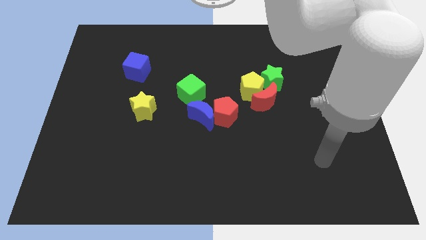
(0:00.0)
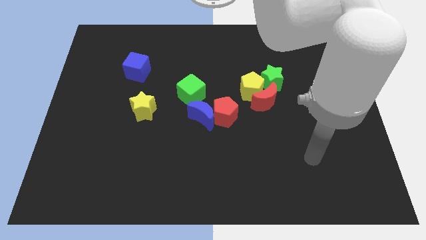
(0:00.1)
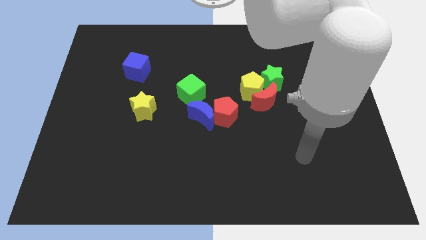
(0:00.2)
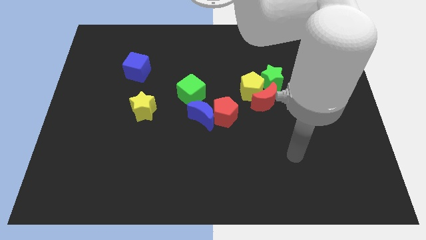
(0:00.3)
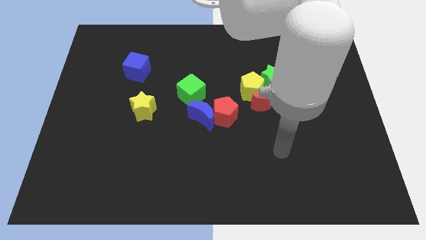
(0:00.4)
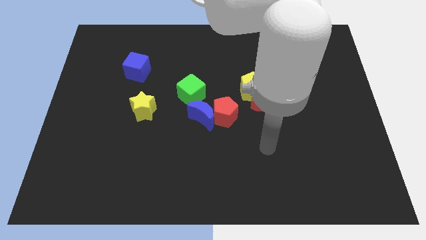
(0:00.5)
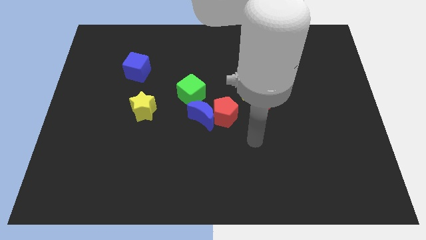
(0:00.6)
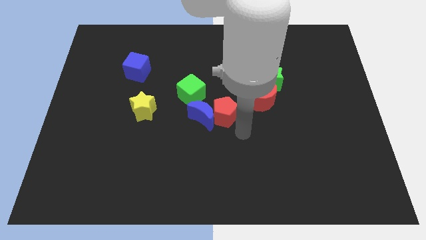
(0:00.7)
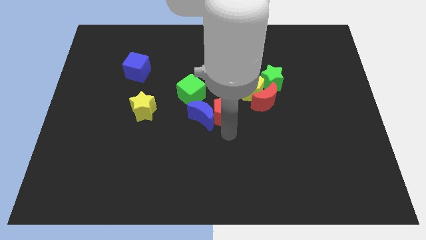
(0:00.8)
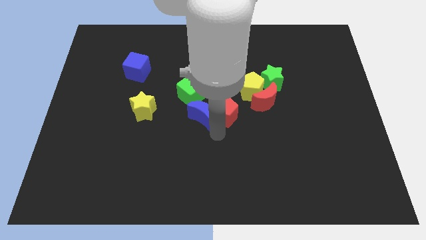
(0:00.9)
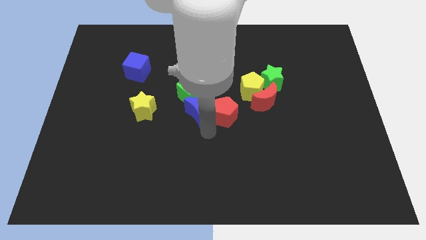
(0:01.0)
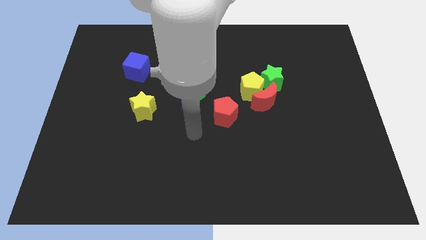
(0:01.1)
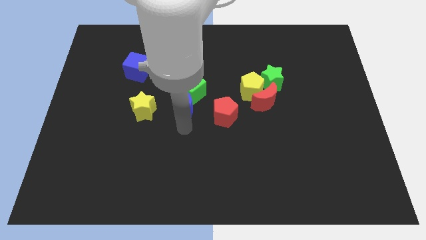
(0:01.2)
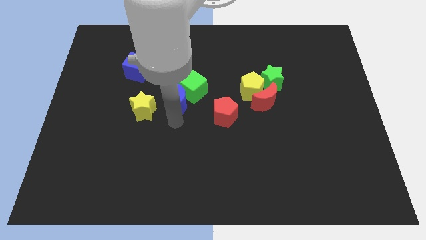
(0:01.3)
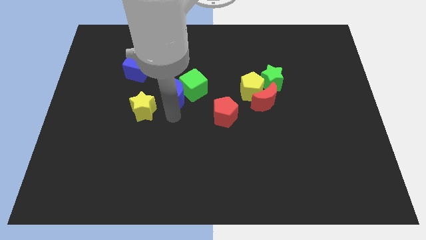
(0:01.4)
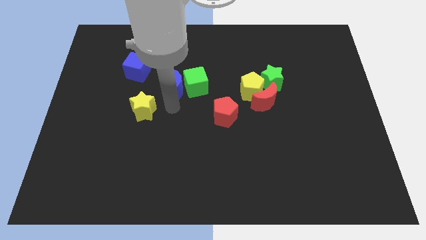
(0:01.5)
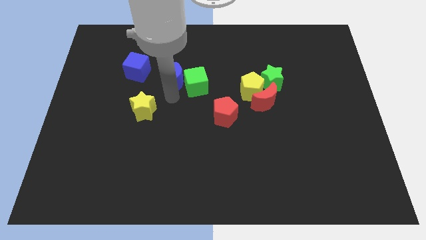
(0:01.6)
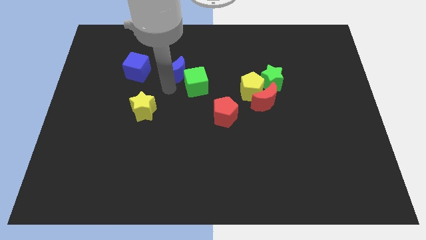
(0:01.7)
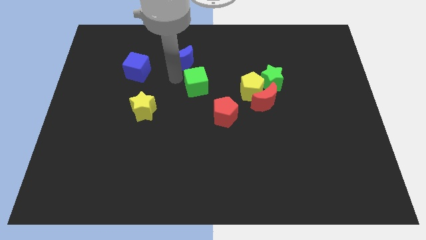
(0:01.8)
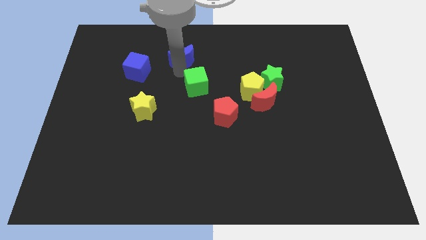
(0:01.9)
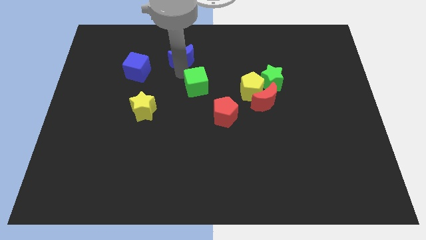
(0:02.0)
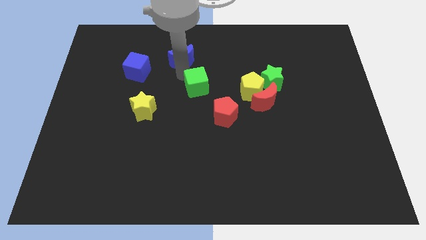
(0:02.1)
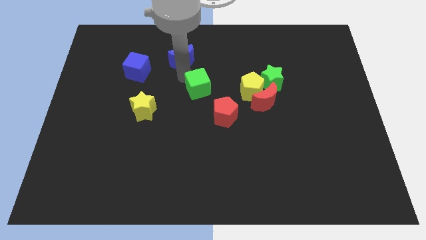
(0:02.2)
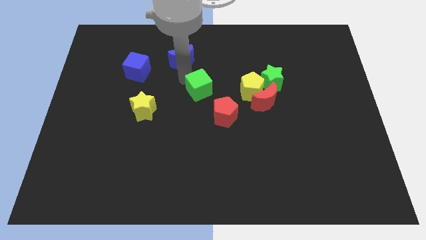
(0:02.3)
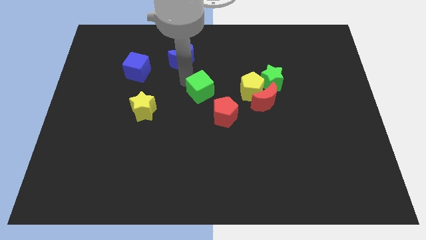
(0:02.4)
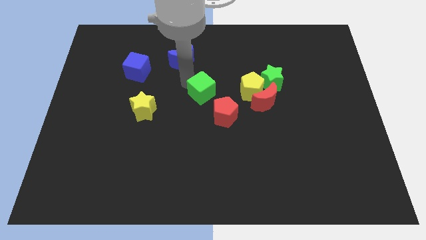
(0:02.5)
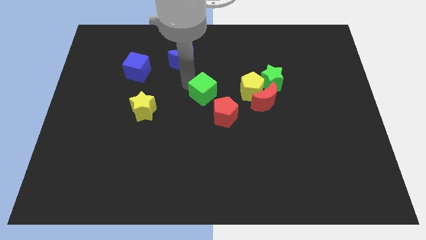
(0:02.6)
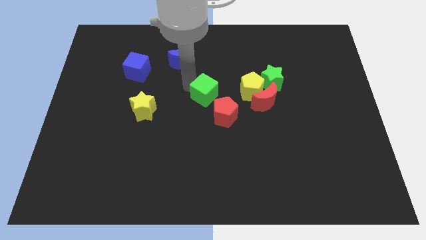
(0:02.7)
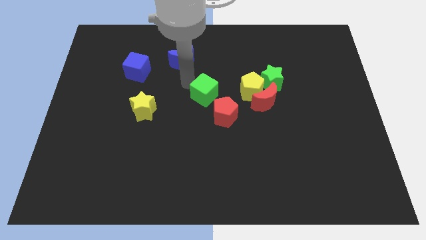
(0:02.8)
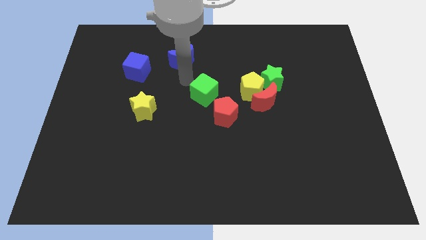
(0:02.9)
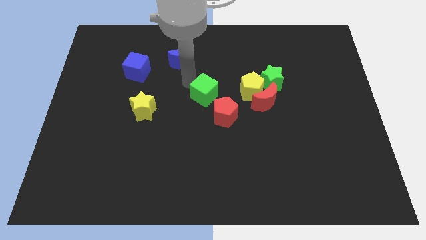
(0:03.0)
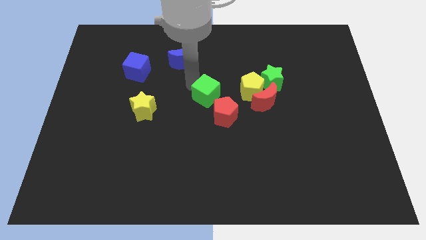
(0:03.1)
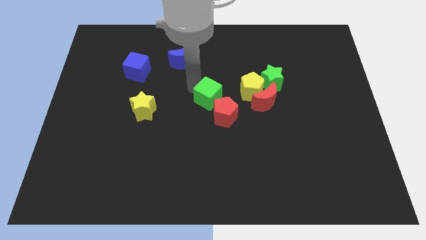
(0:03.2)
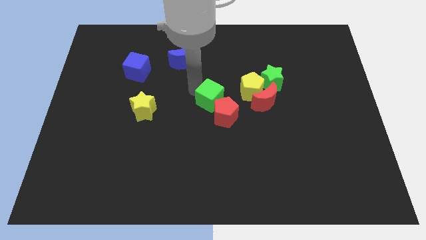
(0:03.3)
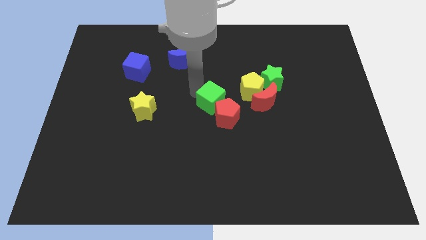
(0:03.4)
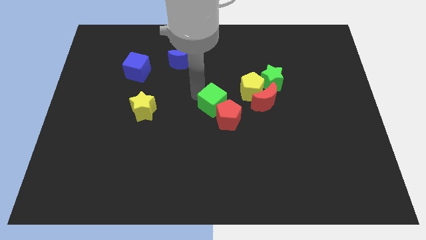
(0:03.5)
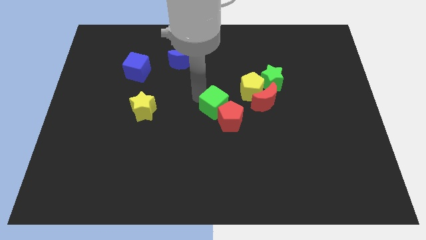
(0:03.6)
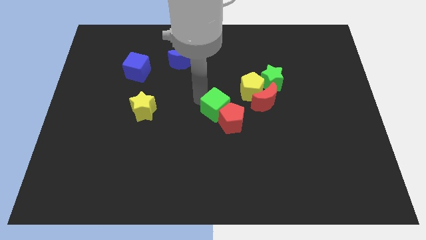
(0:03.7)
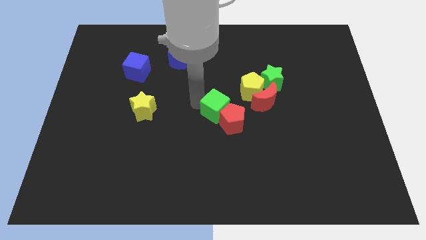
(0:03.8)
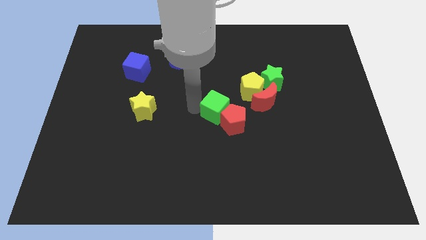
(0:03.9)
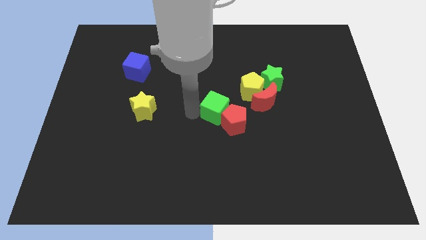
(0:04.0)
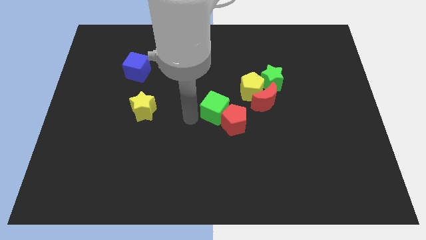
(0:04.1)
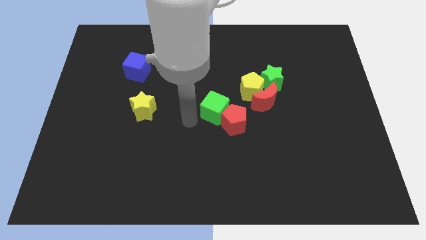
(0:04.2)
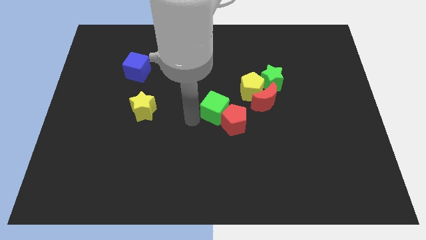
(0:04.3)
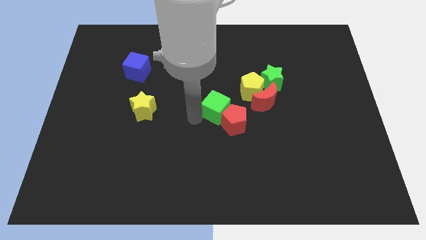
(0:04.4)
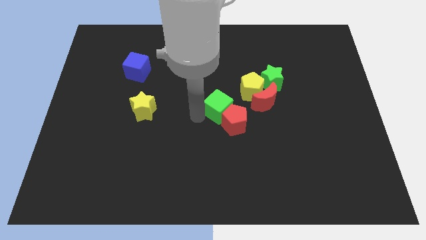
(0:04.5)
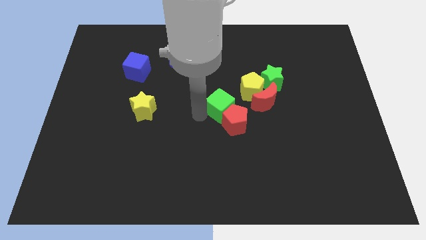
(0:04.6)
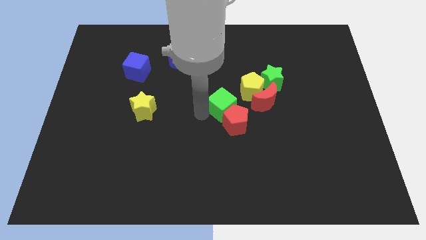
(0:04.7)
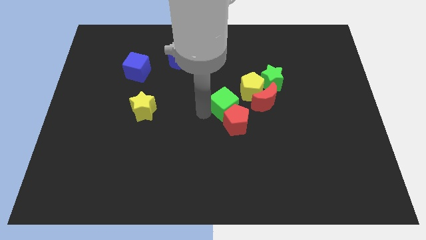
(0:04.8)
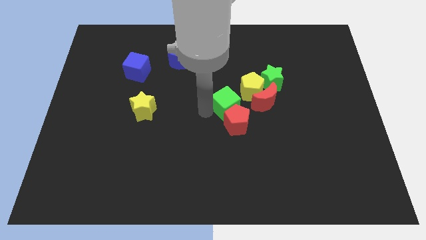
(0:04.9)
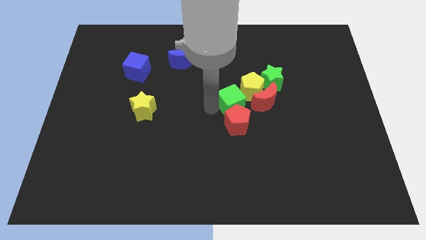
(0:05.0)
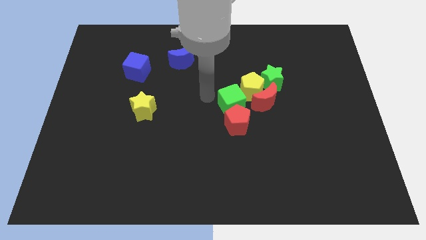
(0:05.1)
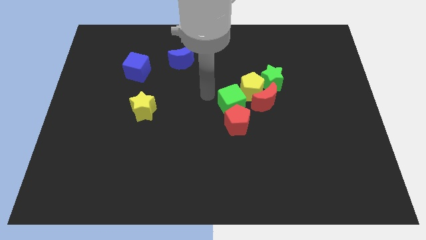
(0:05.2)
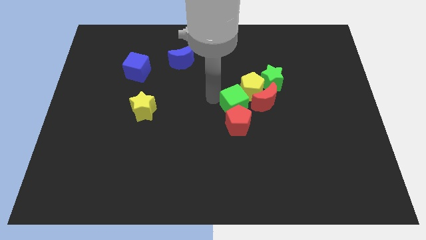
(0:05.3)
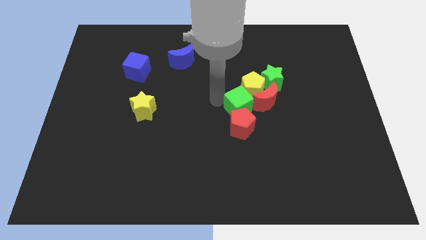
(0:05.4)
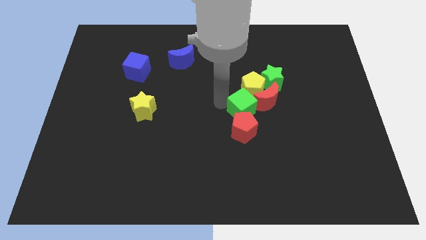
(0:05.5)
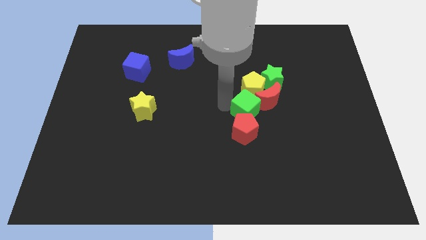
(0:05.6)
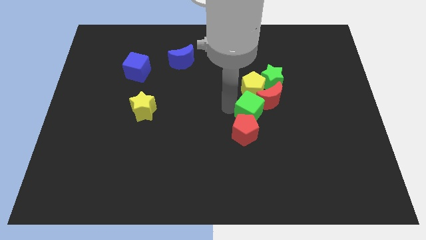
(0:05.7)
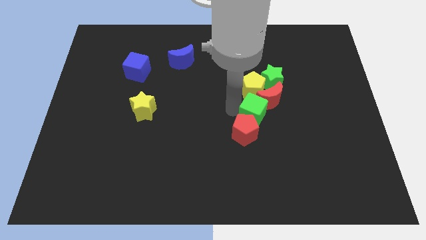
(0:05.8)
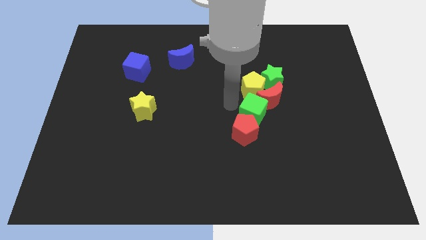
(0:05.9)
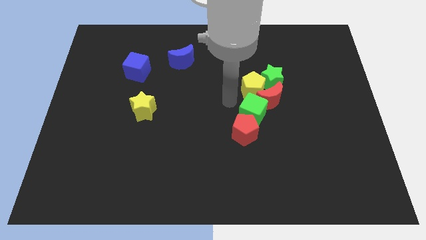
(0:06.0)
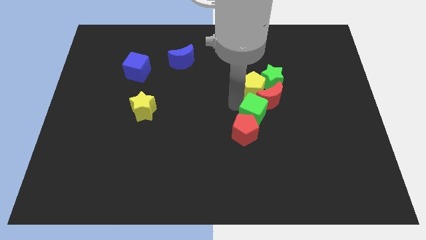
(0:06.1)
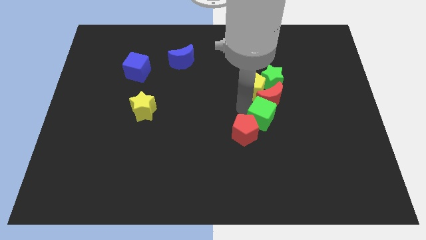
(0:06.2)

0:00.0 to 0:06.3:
push the green cube to the right side of the red pentagon

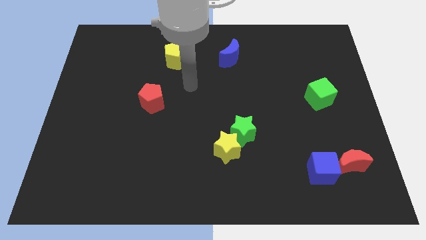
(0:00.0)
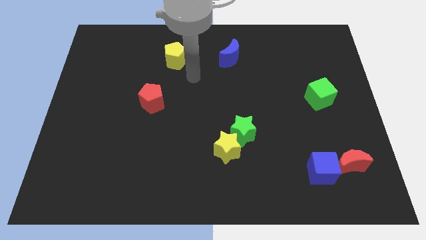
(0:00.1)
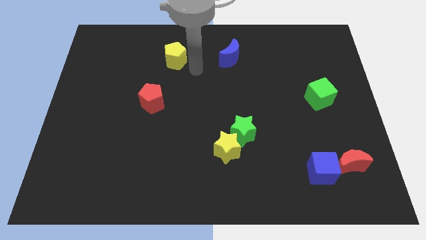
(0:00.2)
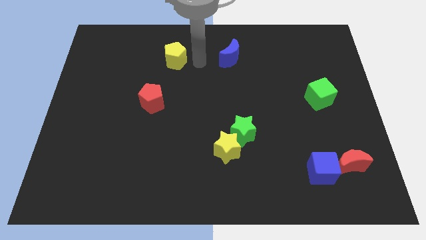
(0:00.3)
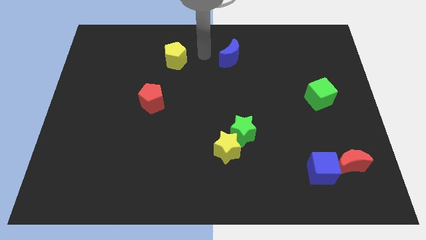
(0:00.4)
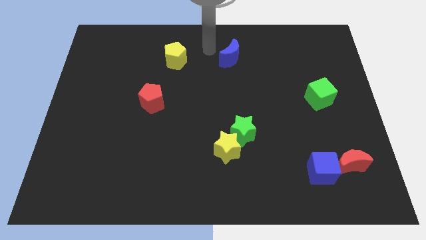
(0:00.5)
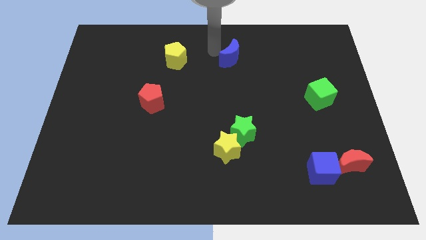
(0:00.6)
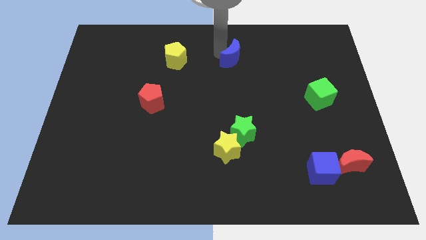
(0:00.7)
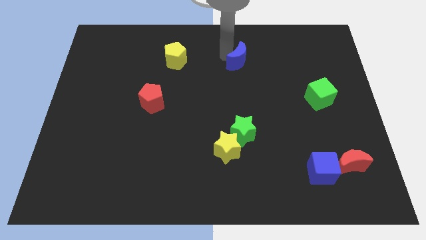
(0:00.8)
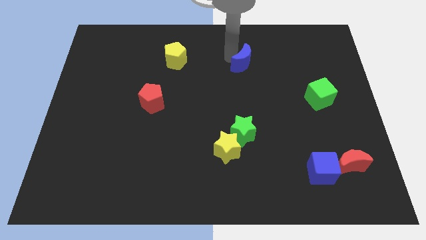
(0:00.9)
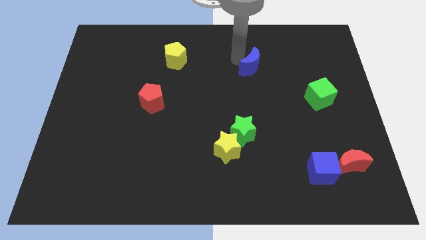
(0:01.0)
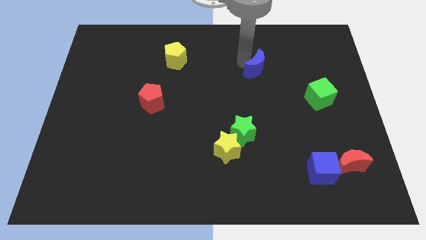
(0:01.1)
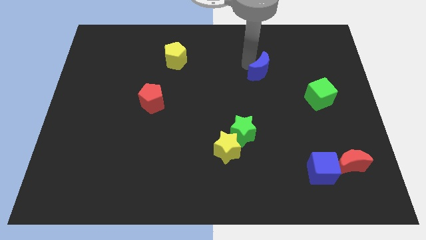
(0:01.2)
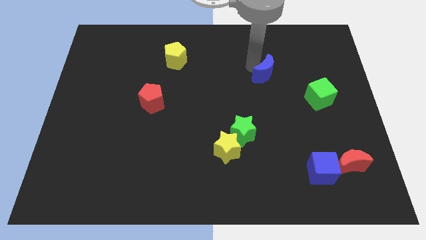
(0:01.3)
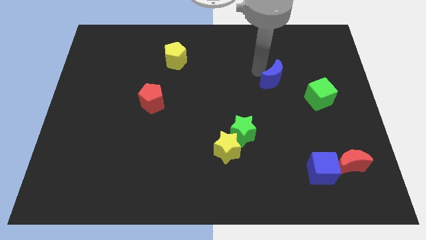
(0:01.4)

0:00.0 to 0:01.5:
push the blue moon to the top left of the green cube

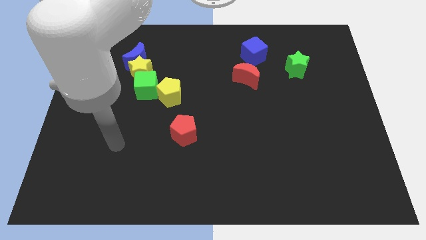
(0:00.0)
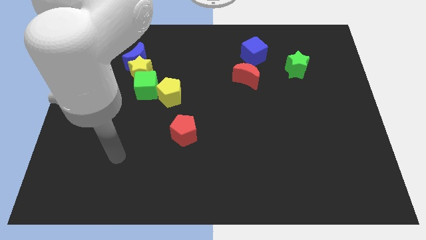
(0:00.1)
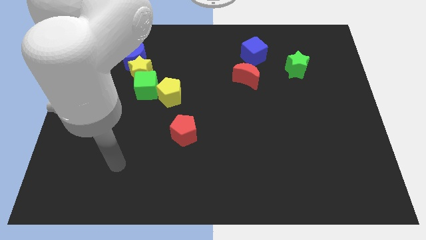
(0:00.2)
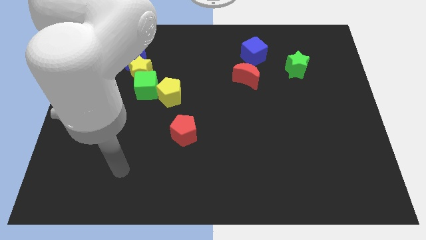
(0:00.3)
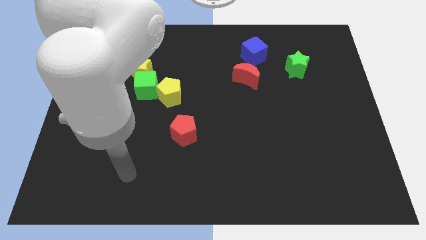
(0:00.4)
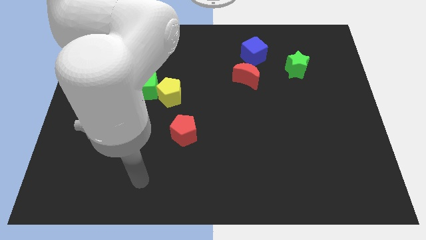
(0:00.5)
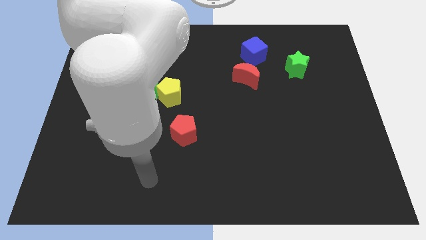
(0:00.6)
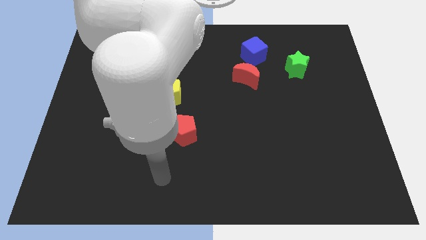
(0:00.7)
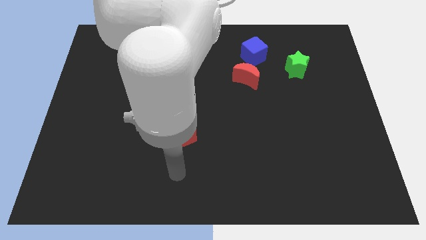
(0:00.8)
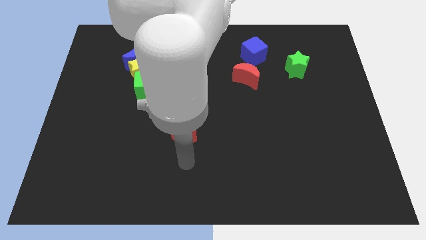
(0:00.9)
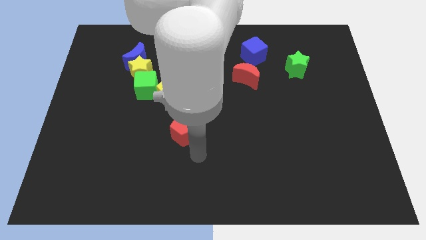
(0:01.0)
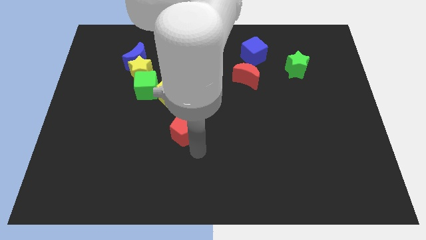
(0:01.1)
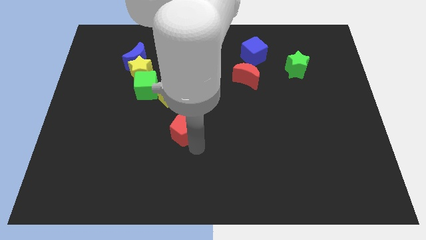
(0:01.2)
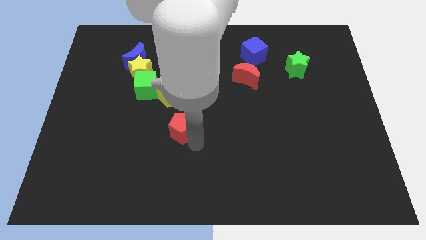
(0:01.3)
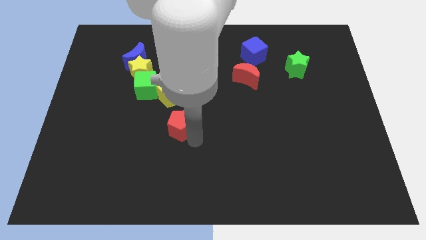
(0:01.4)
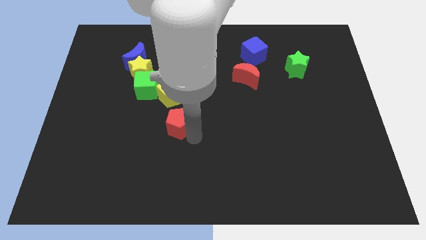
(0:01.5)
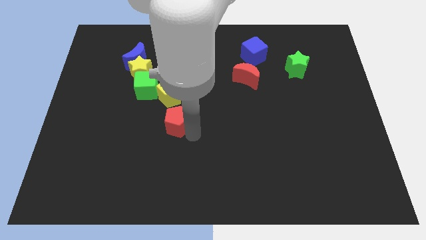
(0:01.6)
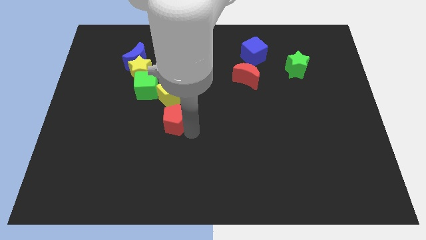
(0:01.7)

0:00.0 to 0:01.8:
push the red pentagon to the bottom right side of the green cube
